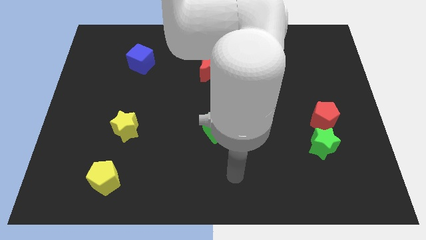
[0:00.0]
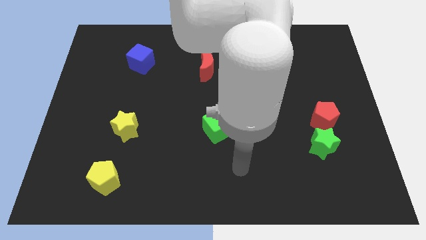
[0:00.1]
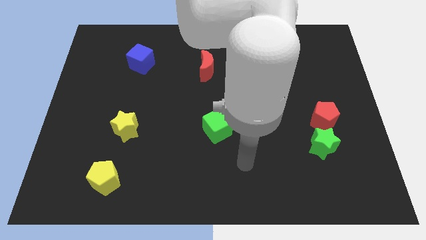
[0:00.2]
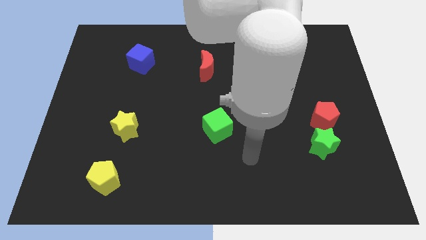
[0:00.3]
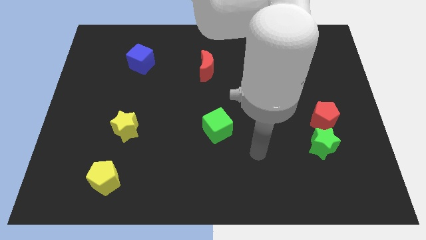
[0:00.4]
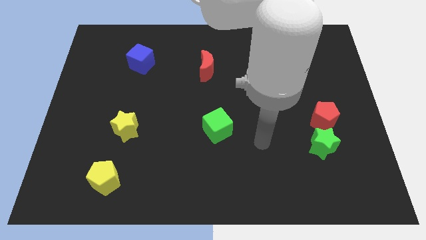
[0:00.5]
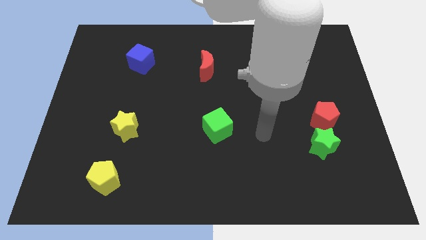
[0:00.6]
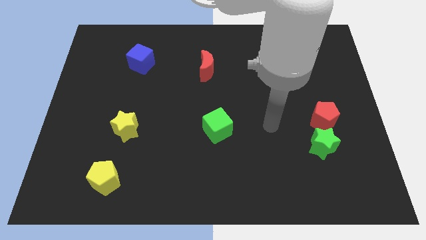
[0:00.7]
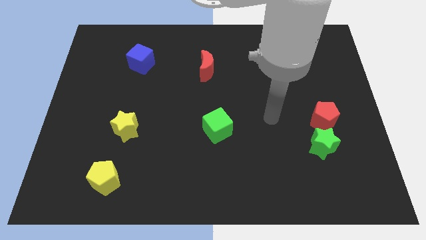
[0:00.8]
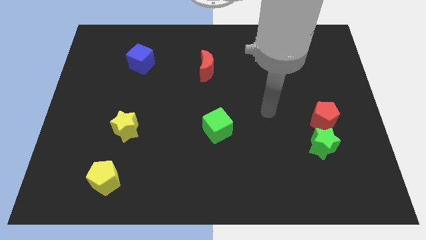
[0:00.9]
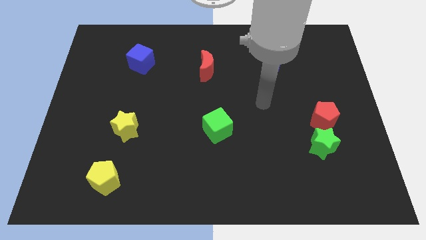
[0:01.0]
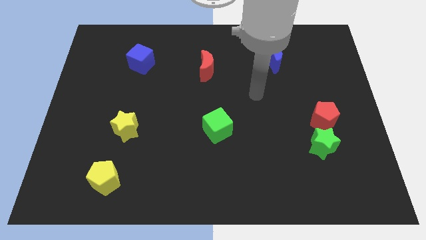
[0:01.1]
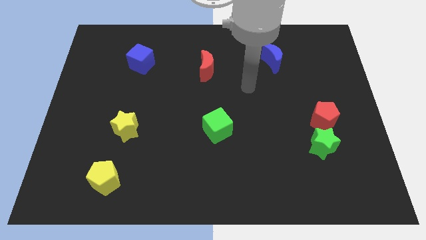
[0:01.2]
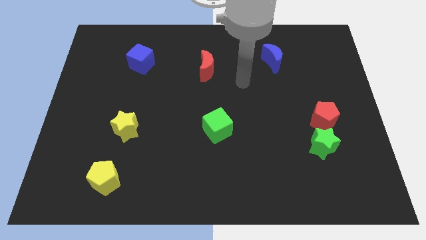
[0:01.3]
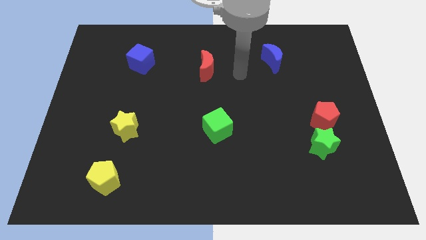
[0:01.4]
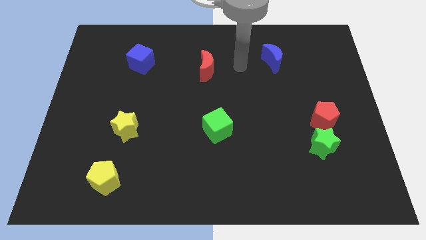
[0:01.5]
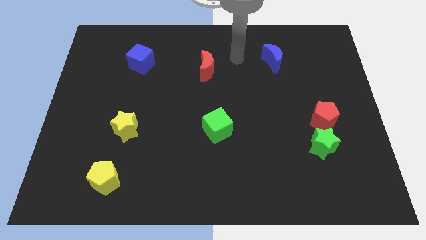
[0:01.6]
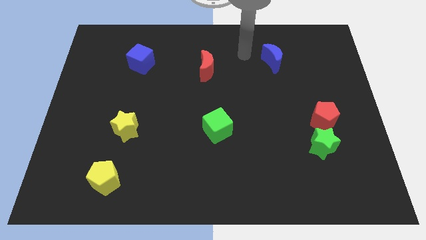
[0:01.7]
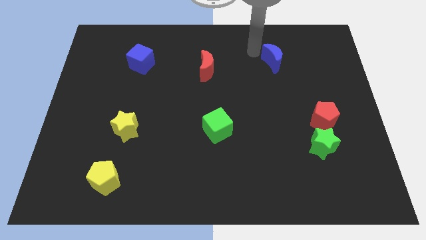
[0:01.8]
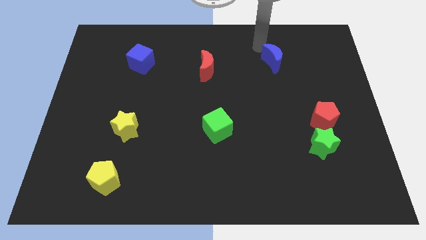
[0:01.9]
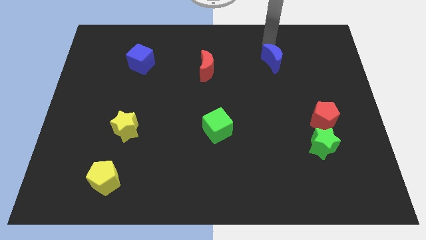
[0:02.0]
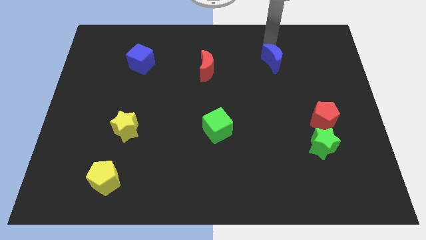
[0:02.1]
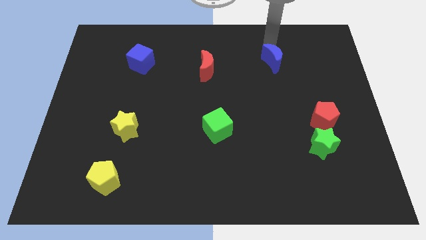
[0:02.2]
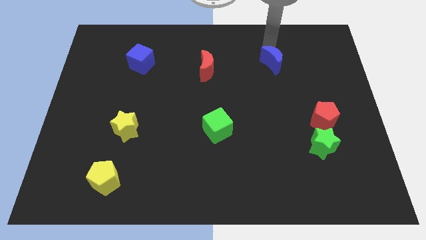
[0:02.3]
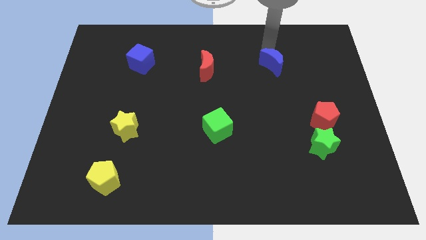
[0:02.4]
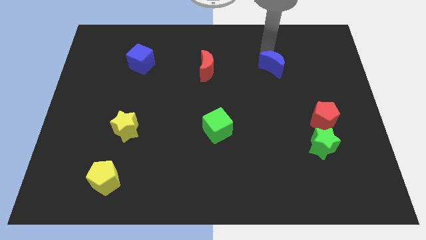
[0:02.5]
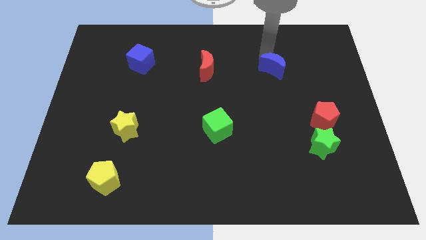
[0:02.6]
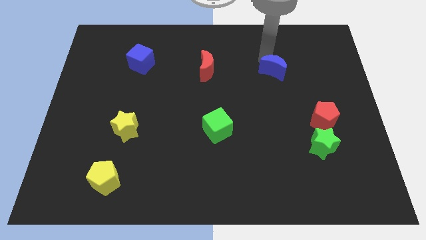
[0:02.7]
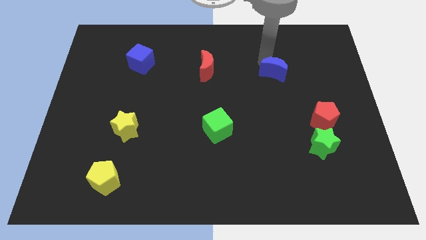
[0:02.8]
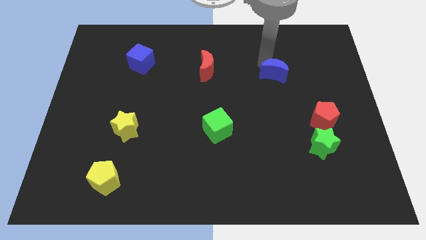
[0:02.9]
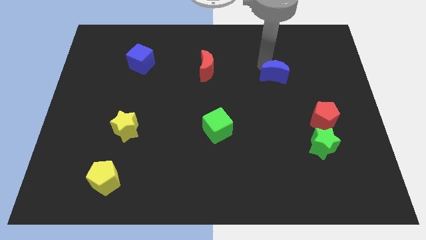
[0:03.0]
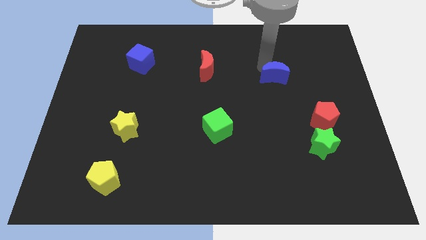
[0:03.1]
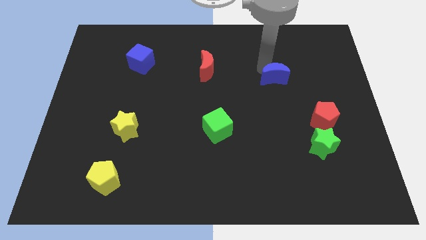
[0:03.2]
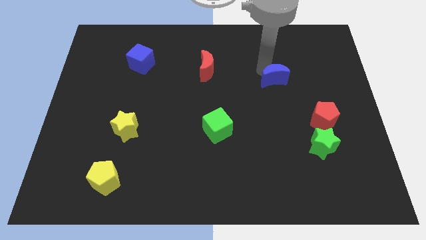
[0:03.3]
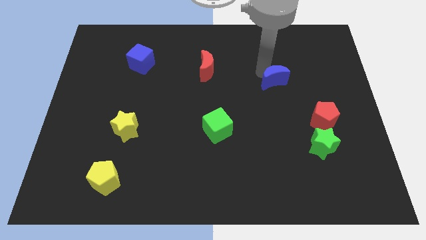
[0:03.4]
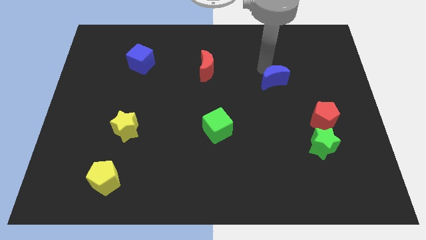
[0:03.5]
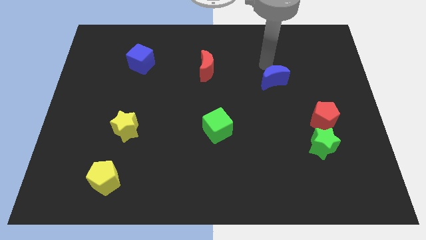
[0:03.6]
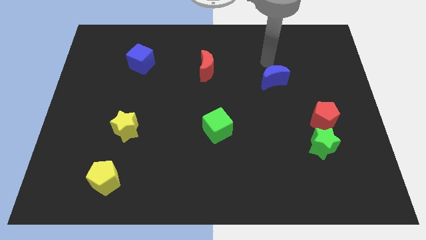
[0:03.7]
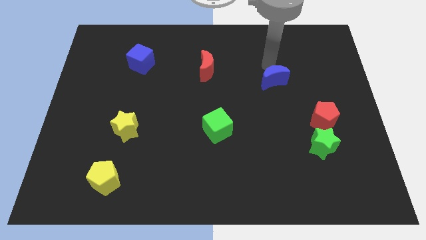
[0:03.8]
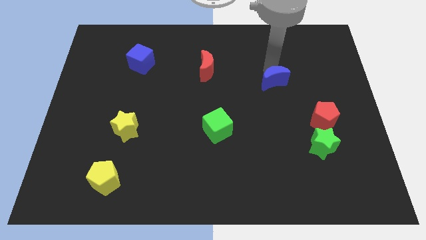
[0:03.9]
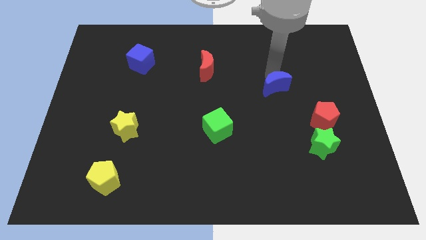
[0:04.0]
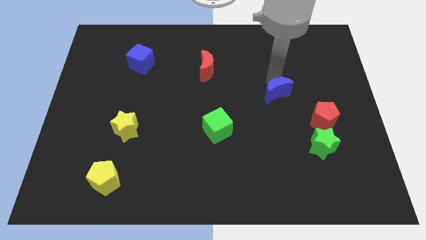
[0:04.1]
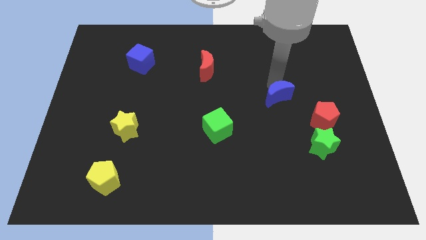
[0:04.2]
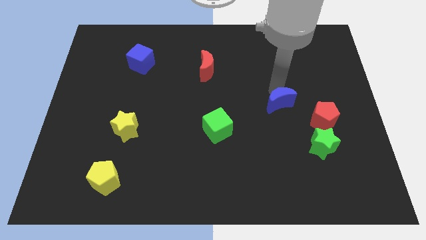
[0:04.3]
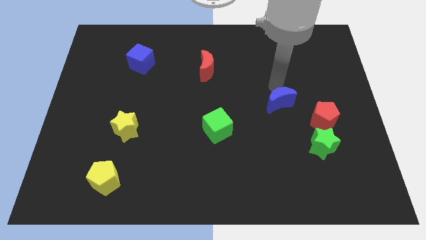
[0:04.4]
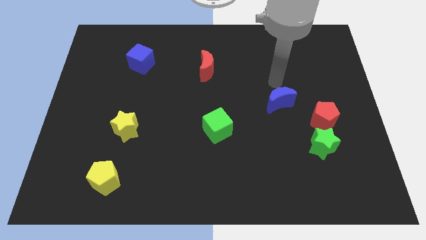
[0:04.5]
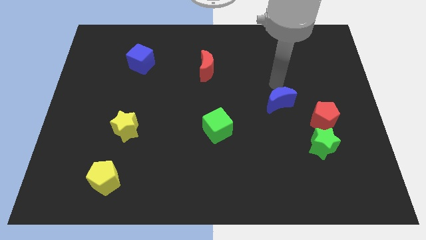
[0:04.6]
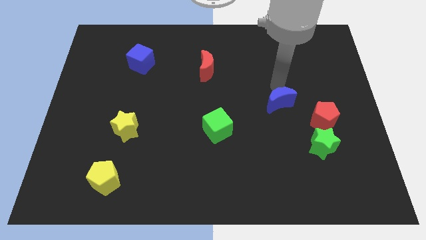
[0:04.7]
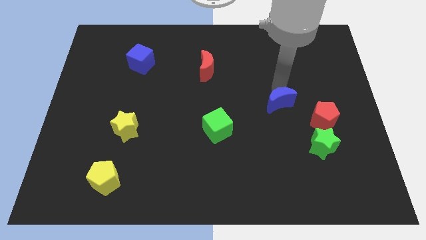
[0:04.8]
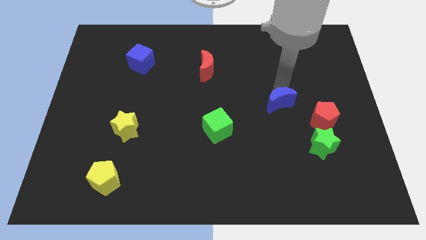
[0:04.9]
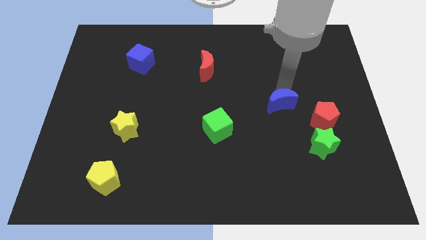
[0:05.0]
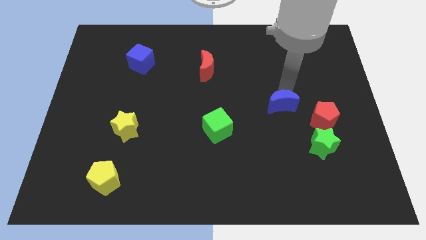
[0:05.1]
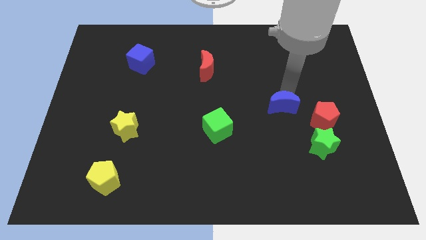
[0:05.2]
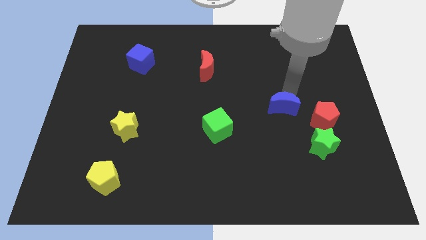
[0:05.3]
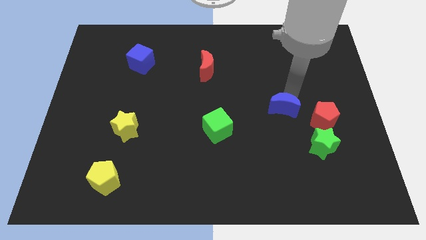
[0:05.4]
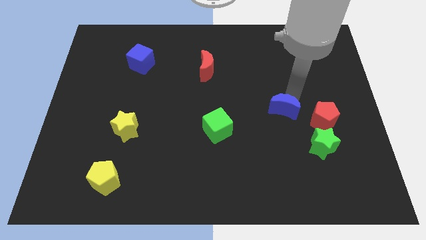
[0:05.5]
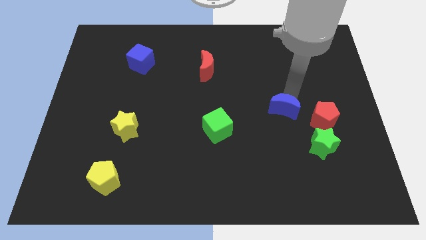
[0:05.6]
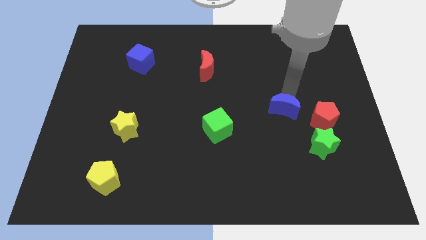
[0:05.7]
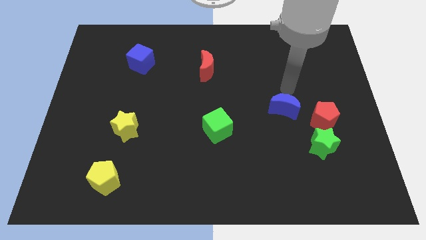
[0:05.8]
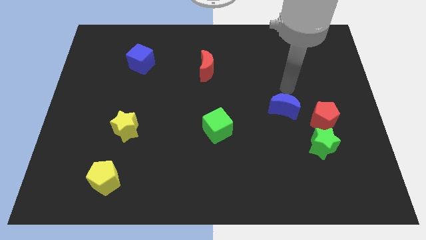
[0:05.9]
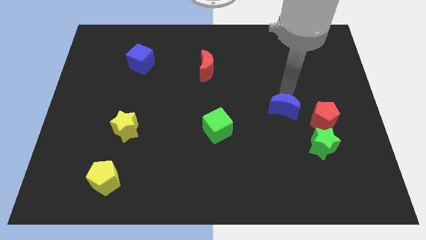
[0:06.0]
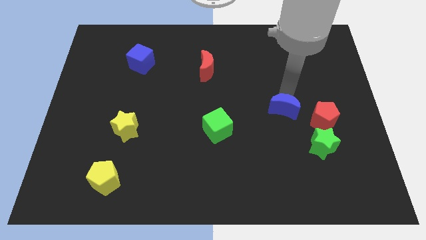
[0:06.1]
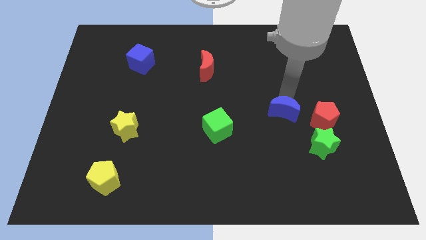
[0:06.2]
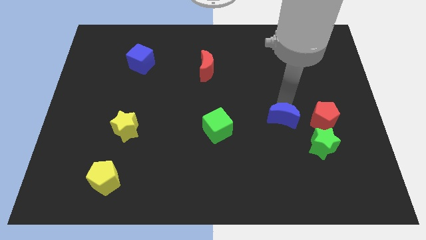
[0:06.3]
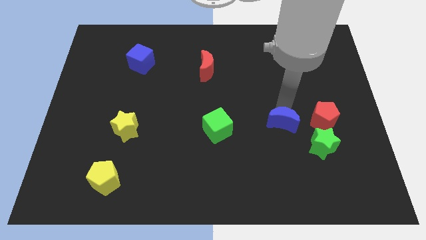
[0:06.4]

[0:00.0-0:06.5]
slide the blue moon downwards

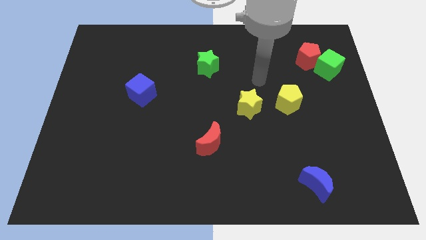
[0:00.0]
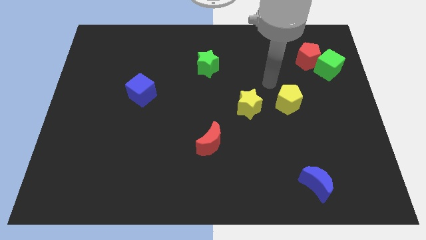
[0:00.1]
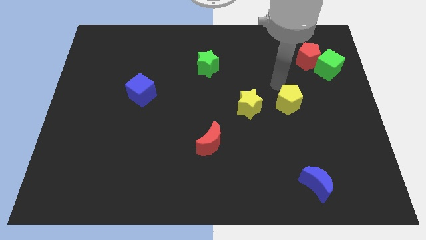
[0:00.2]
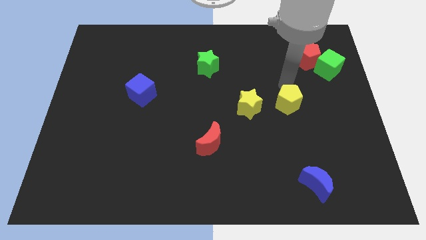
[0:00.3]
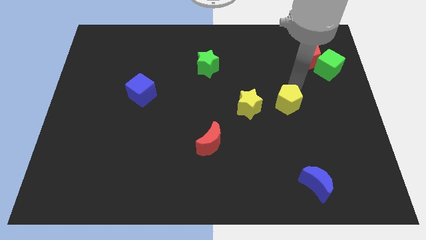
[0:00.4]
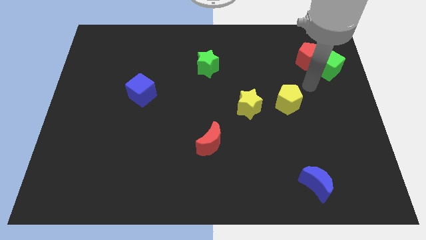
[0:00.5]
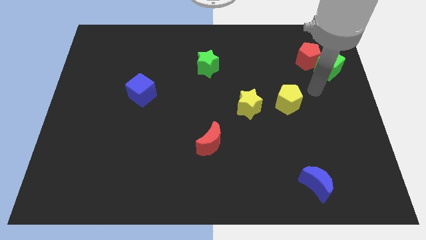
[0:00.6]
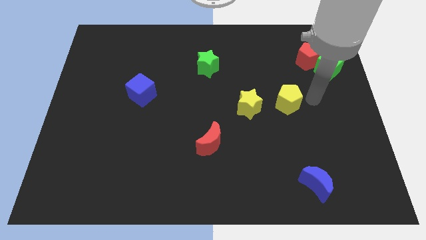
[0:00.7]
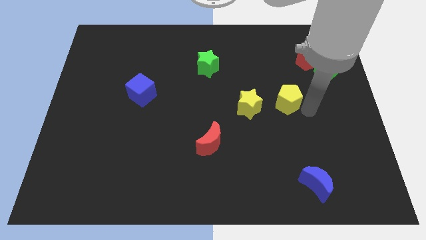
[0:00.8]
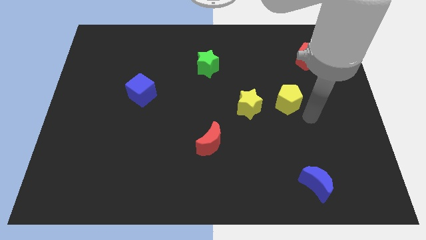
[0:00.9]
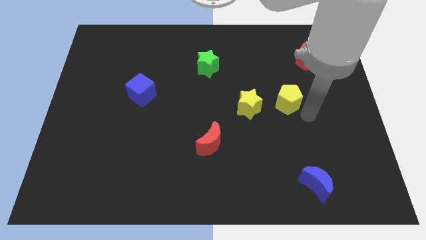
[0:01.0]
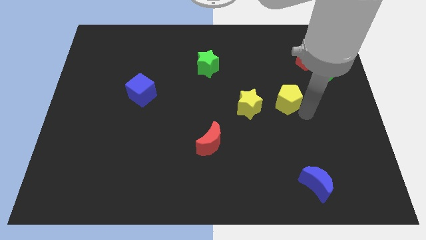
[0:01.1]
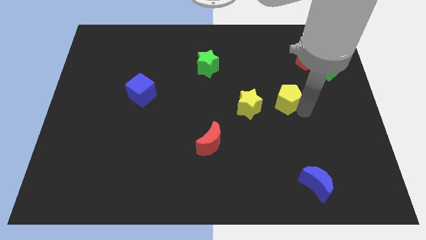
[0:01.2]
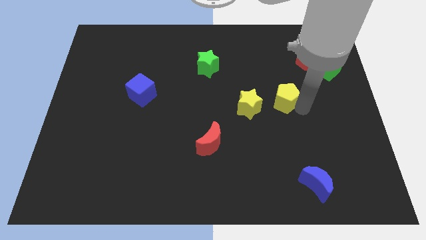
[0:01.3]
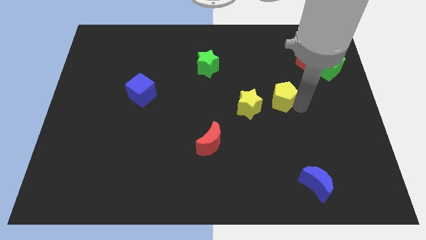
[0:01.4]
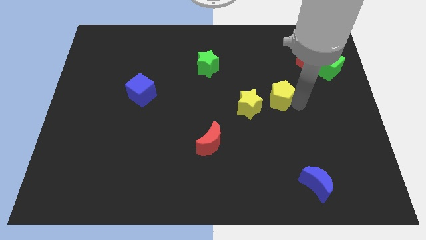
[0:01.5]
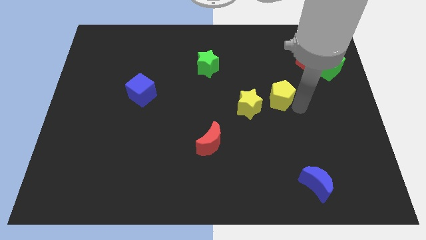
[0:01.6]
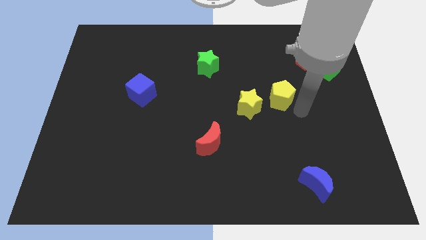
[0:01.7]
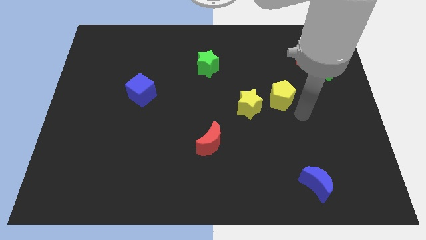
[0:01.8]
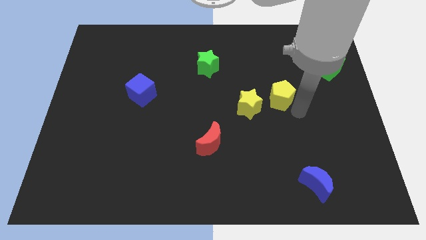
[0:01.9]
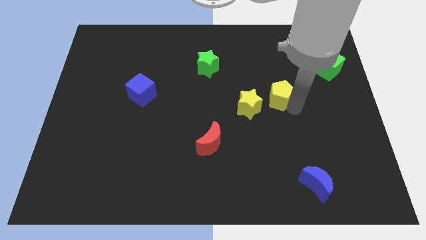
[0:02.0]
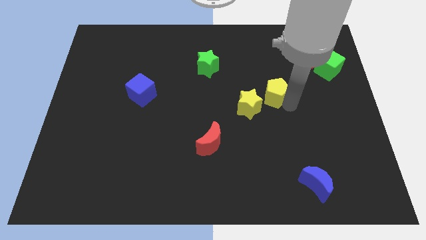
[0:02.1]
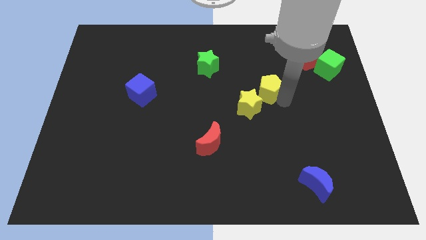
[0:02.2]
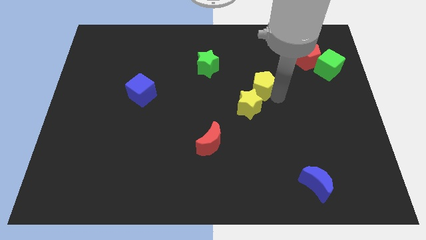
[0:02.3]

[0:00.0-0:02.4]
slightly push the yellow pentagon upwards and then to the left
